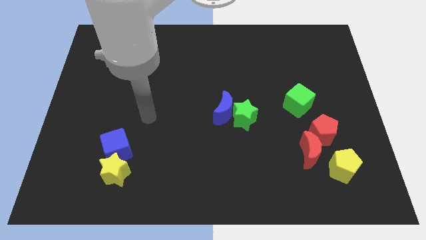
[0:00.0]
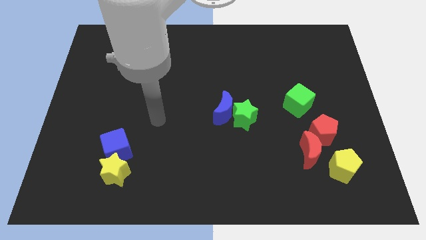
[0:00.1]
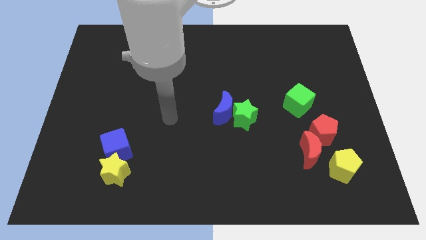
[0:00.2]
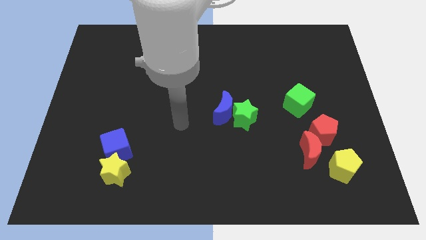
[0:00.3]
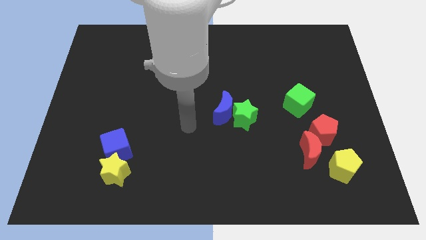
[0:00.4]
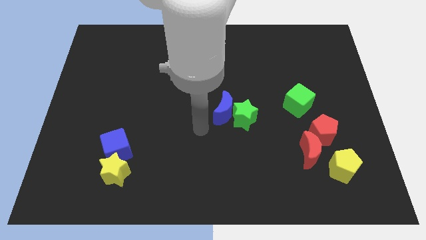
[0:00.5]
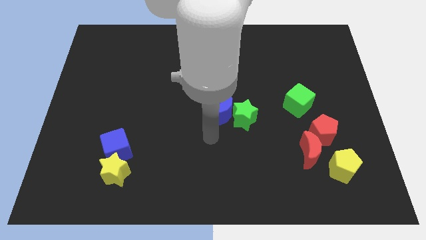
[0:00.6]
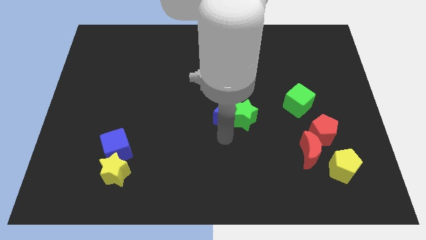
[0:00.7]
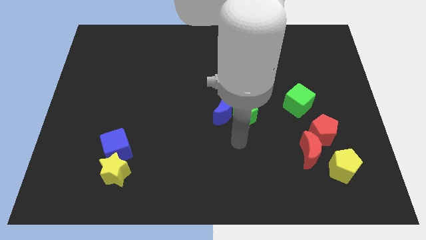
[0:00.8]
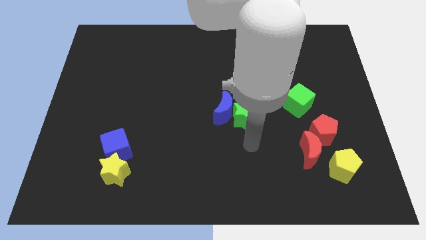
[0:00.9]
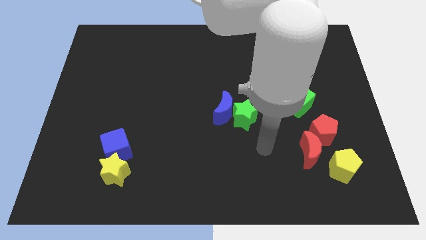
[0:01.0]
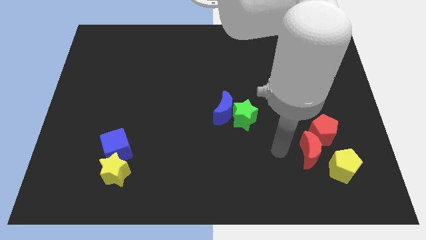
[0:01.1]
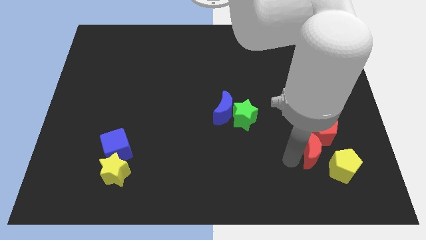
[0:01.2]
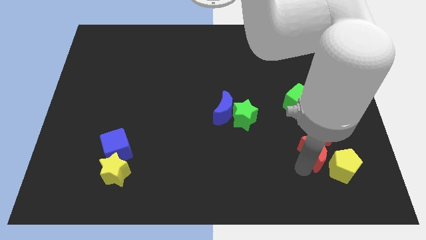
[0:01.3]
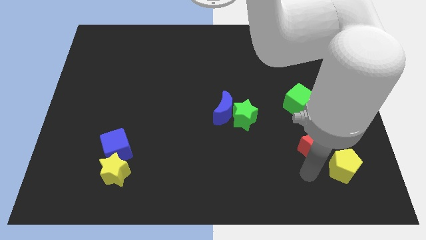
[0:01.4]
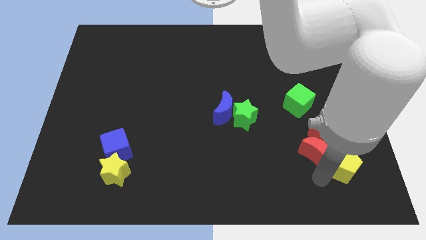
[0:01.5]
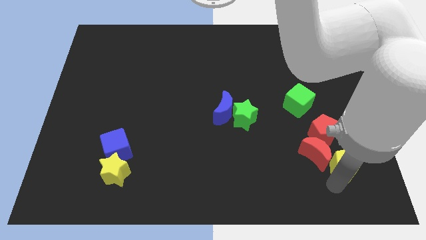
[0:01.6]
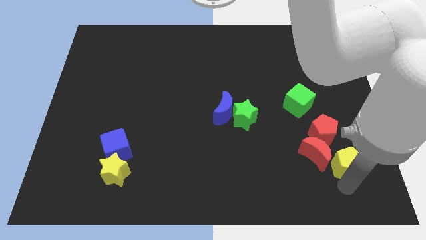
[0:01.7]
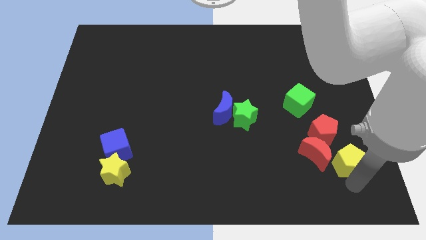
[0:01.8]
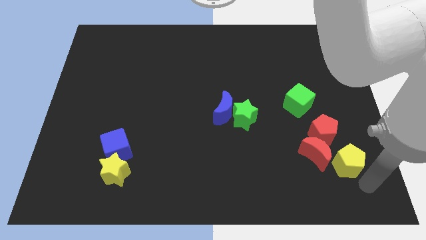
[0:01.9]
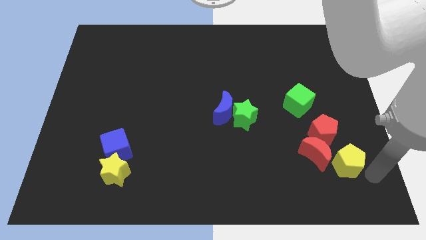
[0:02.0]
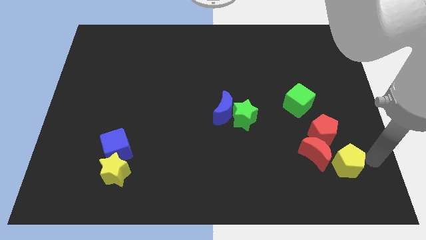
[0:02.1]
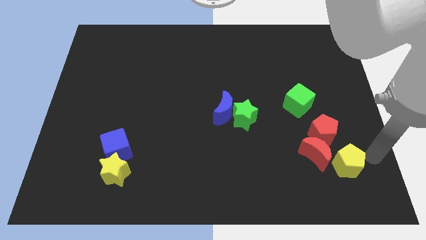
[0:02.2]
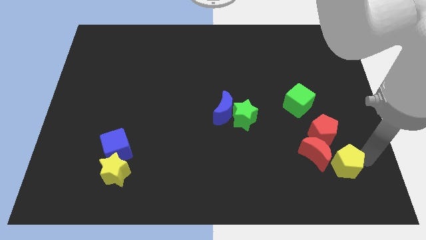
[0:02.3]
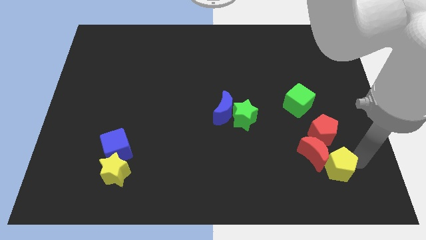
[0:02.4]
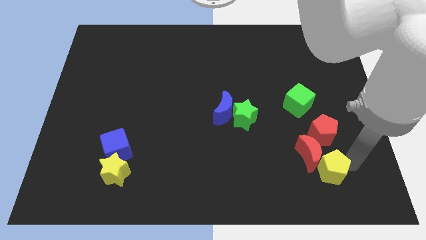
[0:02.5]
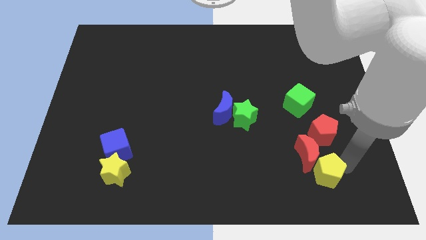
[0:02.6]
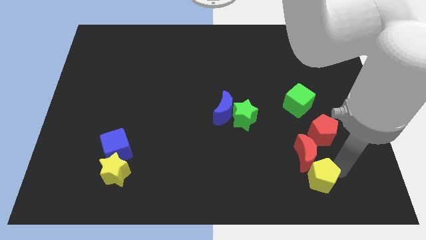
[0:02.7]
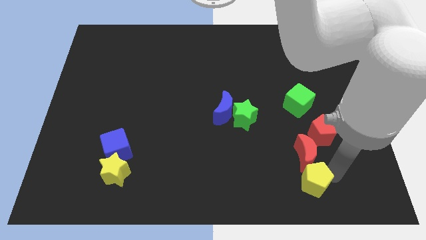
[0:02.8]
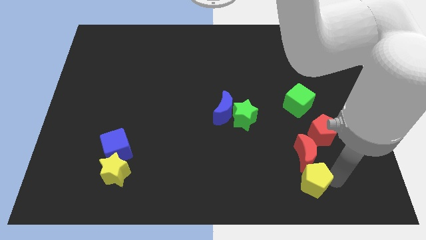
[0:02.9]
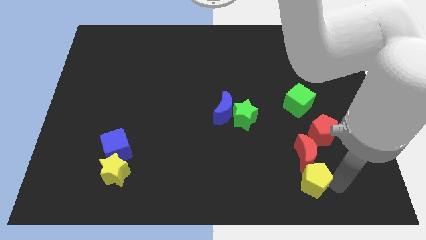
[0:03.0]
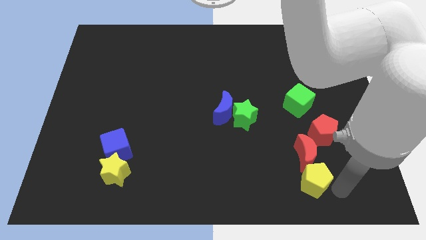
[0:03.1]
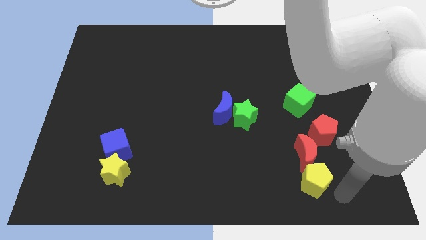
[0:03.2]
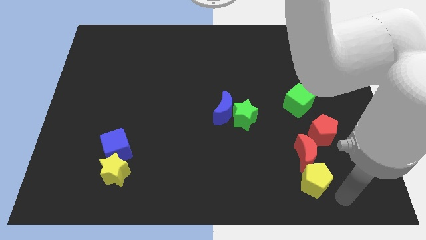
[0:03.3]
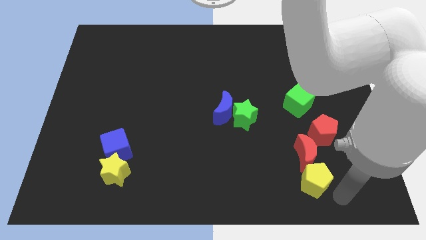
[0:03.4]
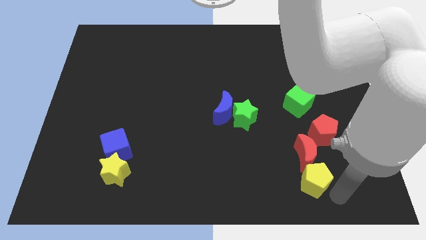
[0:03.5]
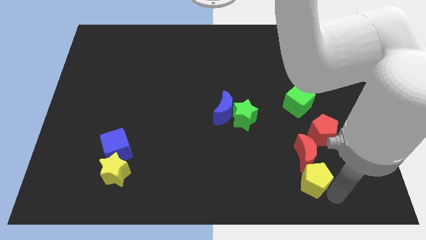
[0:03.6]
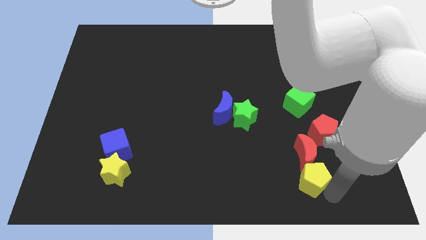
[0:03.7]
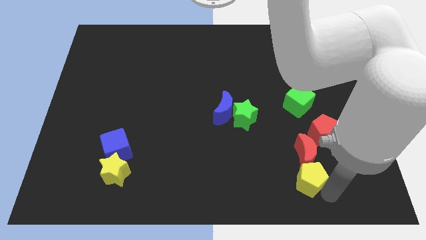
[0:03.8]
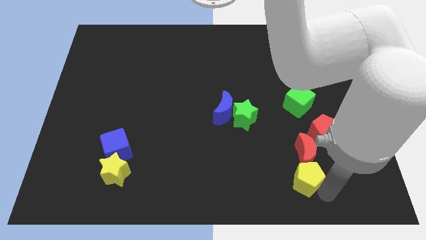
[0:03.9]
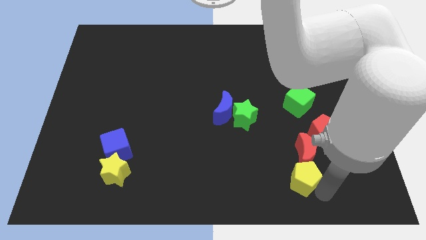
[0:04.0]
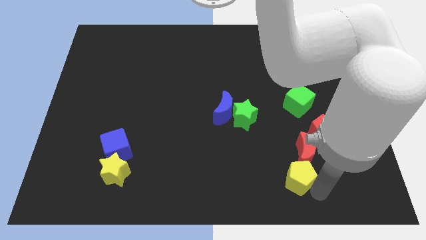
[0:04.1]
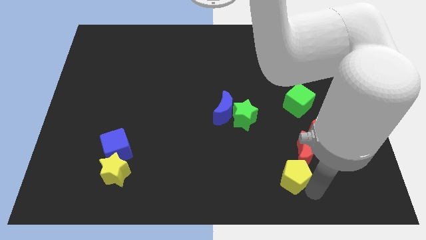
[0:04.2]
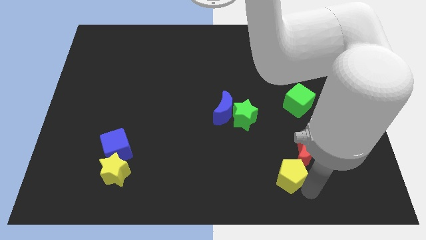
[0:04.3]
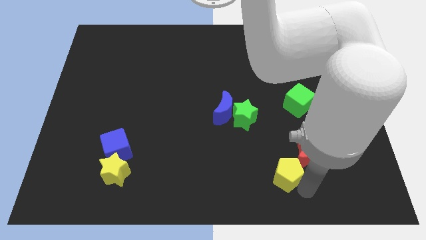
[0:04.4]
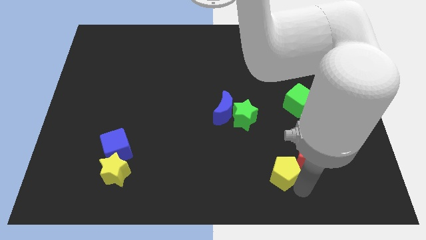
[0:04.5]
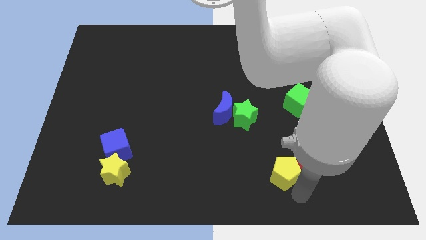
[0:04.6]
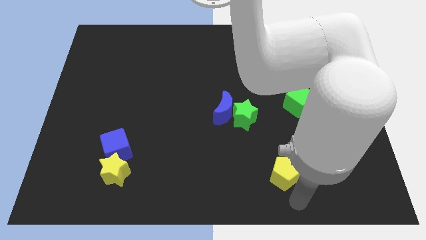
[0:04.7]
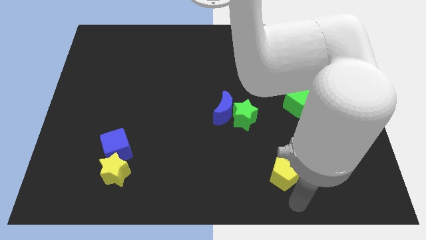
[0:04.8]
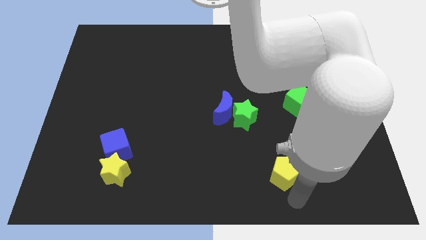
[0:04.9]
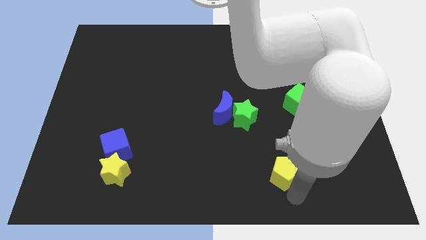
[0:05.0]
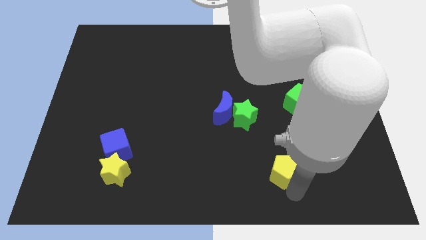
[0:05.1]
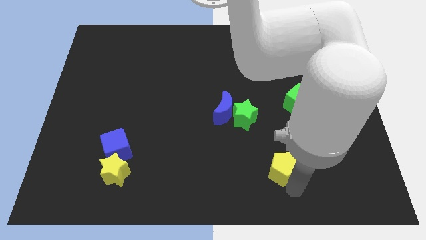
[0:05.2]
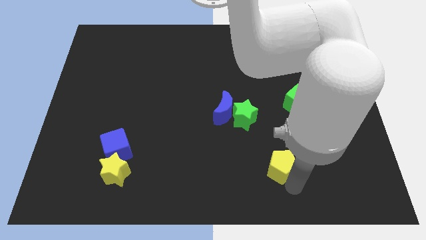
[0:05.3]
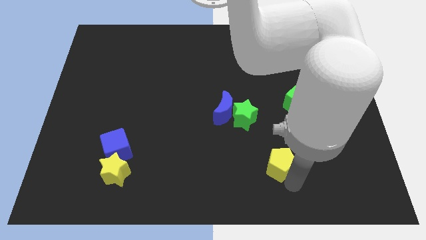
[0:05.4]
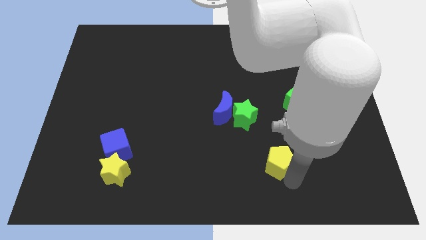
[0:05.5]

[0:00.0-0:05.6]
push the yellow pentagon a little up and left diagonally

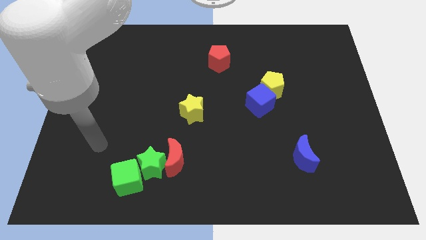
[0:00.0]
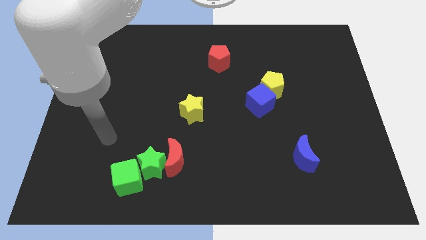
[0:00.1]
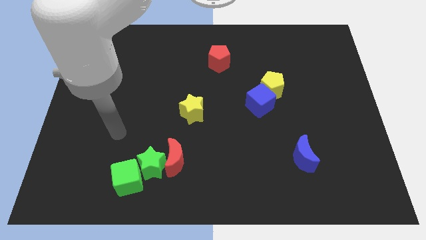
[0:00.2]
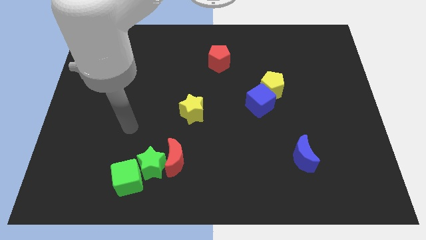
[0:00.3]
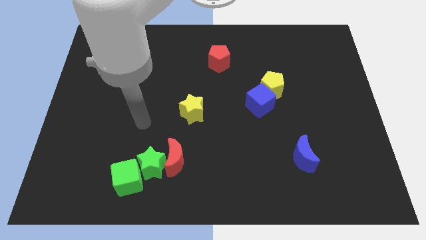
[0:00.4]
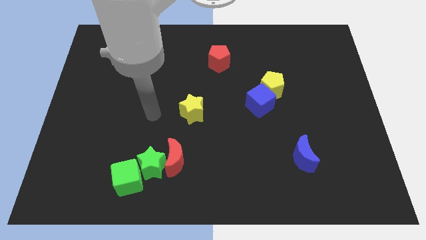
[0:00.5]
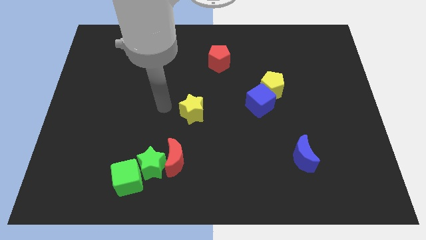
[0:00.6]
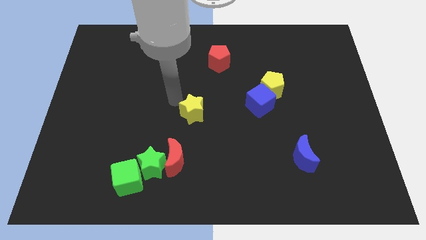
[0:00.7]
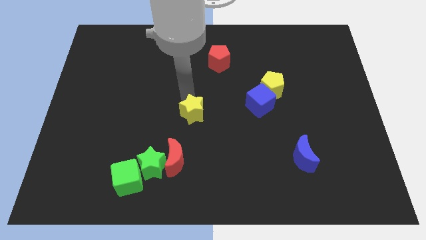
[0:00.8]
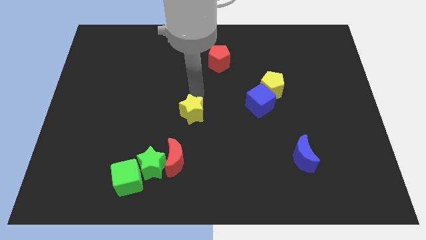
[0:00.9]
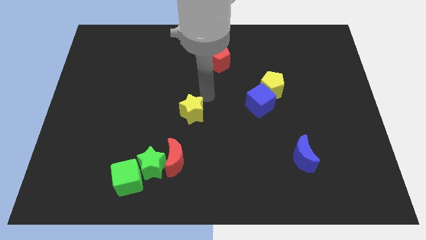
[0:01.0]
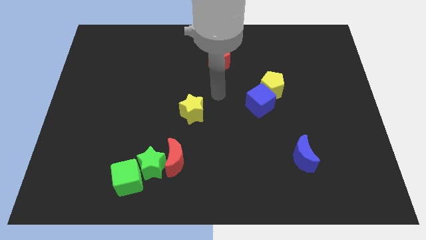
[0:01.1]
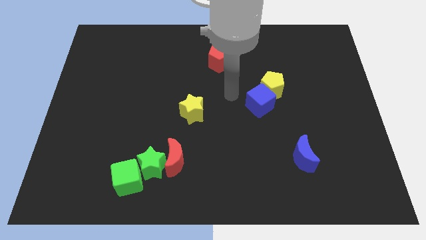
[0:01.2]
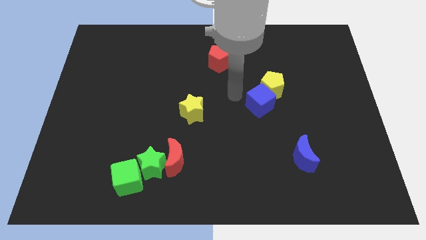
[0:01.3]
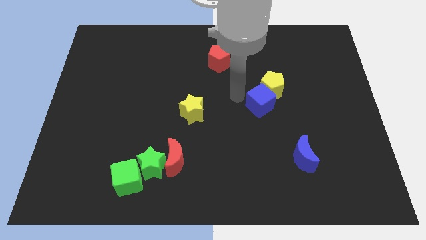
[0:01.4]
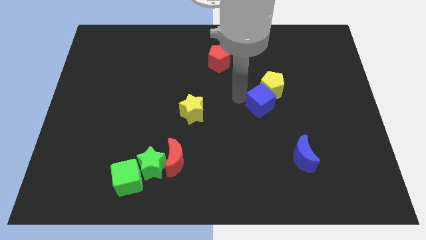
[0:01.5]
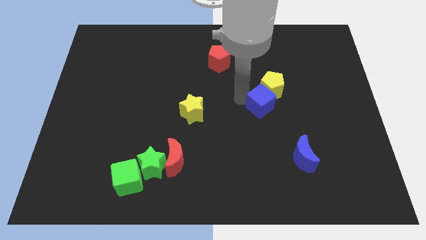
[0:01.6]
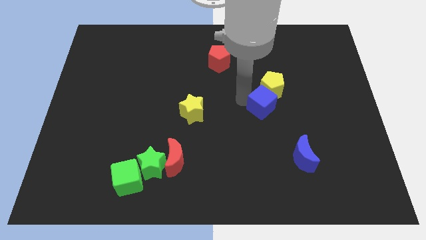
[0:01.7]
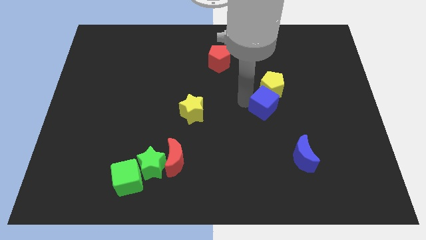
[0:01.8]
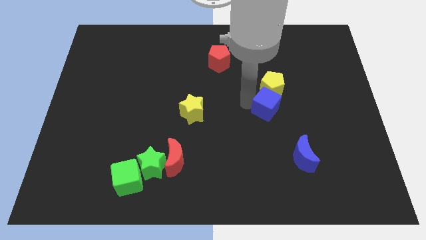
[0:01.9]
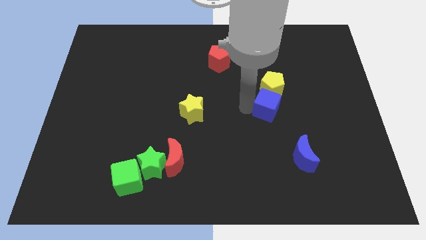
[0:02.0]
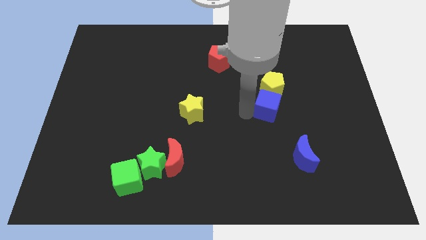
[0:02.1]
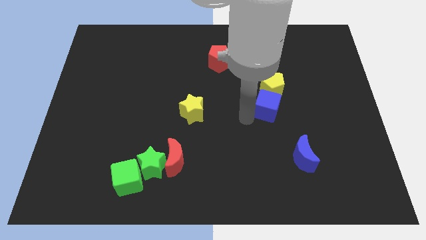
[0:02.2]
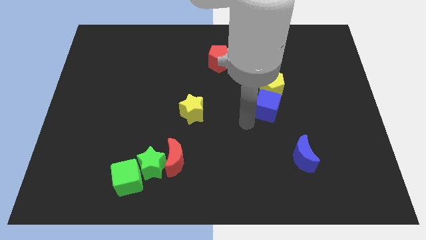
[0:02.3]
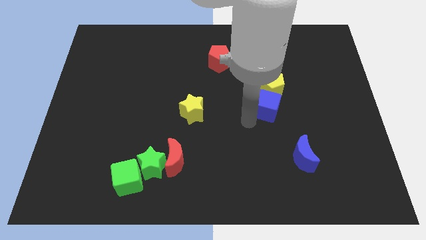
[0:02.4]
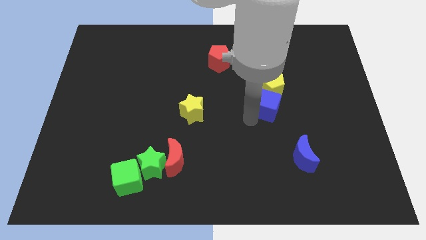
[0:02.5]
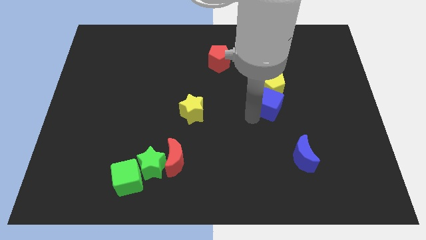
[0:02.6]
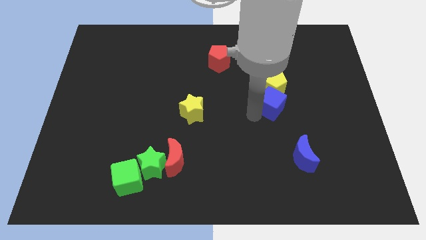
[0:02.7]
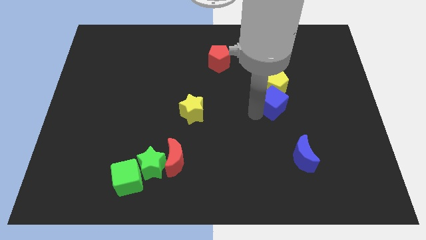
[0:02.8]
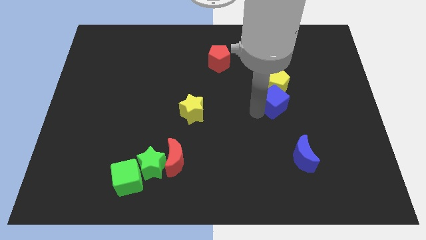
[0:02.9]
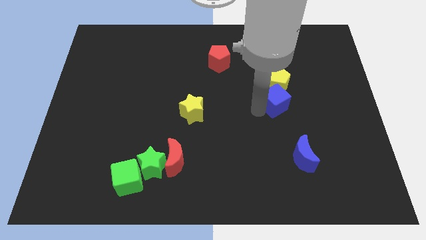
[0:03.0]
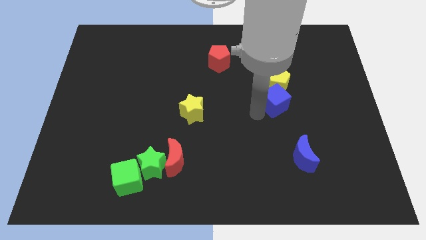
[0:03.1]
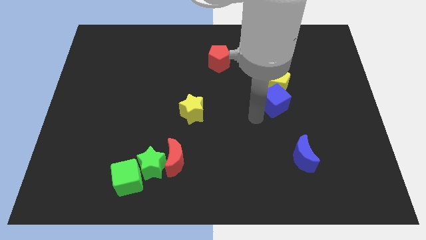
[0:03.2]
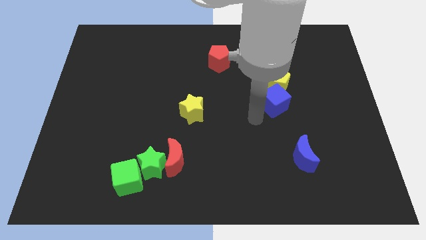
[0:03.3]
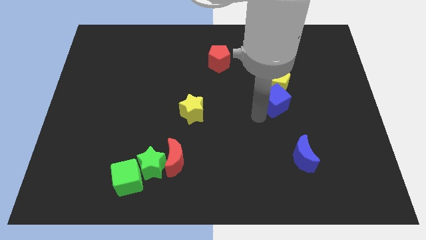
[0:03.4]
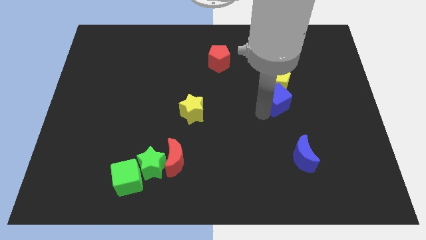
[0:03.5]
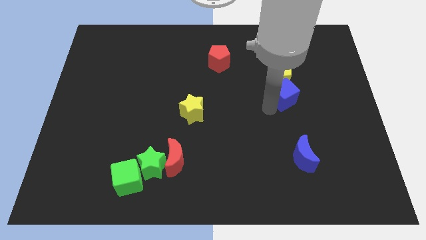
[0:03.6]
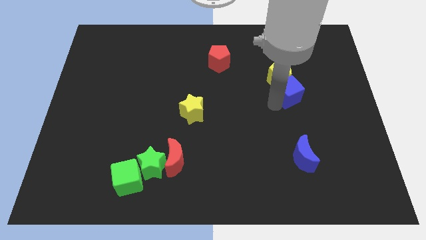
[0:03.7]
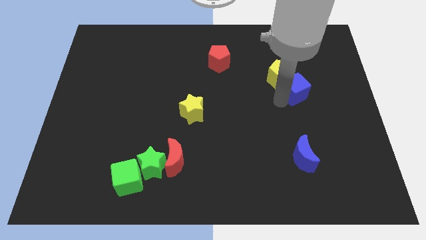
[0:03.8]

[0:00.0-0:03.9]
slightly slide the blue cube upwards and right diagonally
